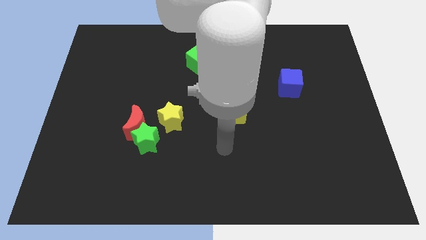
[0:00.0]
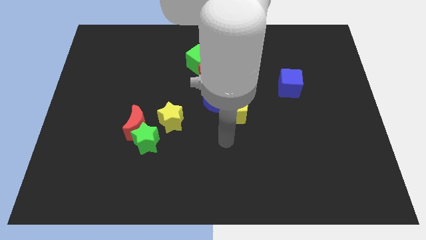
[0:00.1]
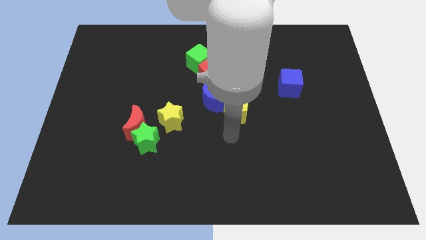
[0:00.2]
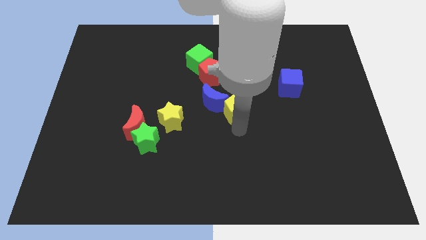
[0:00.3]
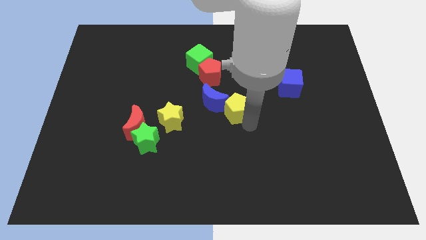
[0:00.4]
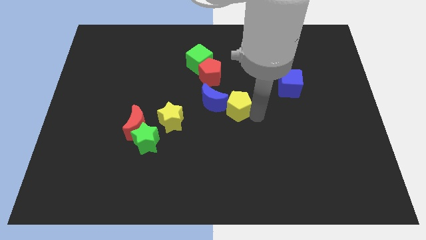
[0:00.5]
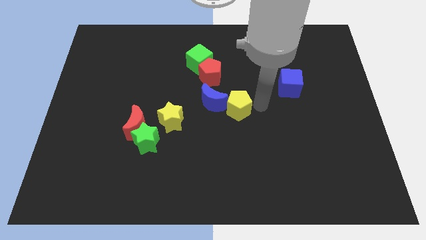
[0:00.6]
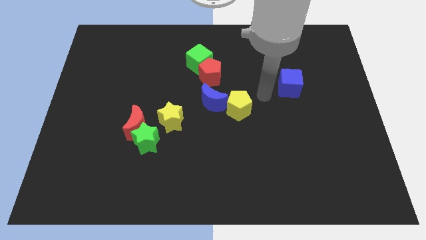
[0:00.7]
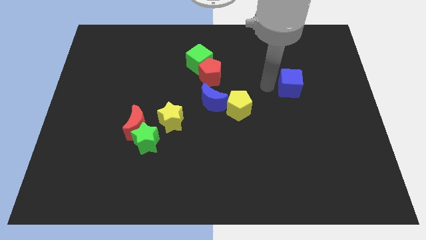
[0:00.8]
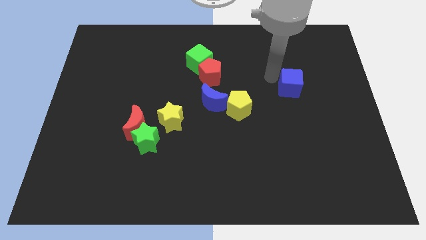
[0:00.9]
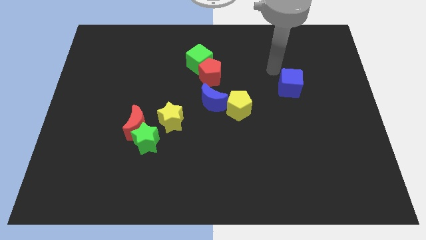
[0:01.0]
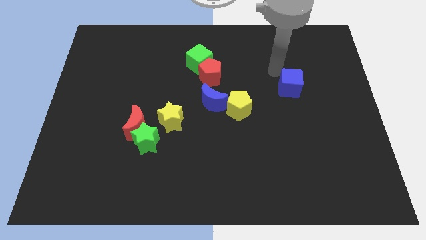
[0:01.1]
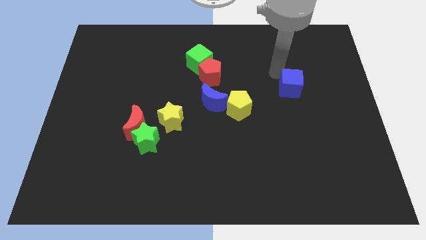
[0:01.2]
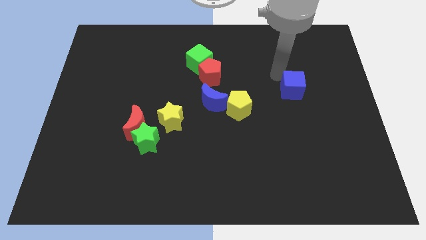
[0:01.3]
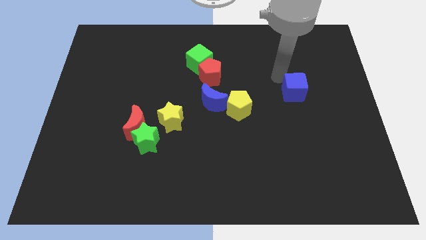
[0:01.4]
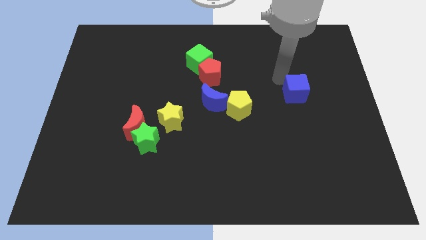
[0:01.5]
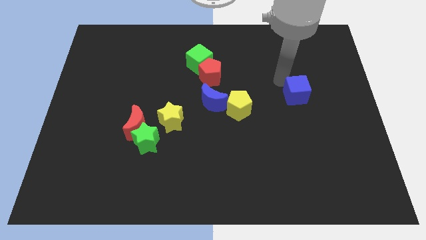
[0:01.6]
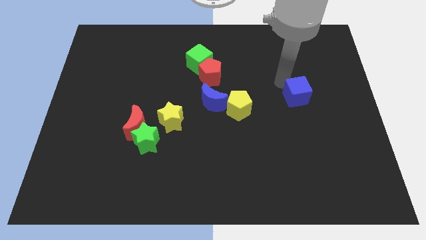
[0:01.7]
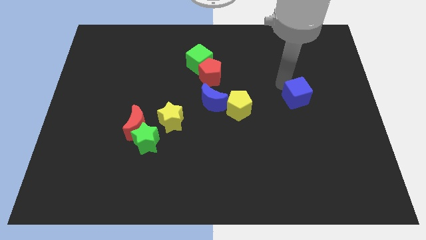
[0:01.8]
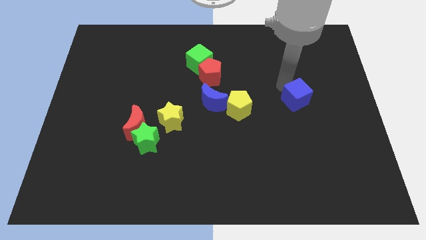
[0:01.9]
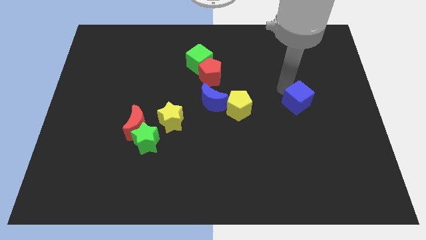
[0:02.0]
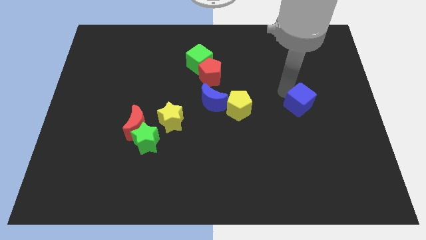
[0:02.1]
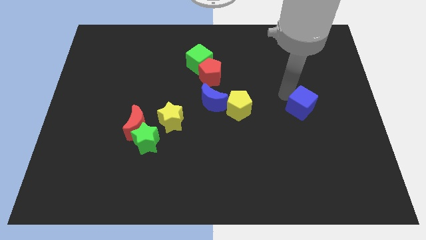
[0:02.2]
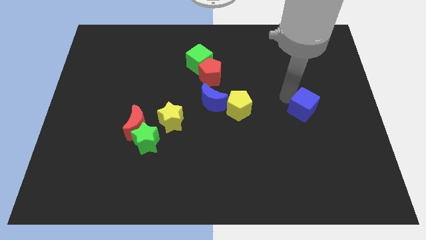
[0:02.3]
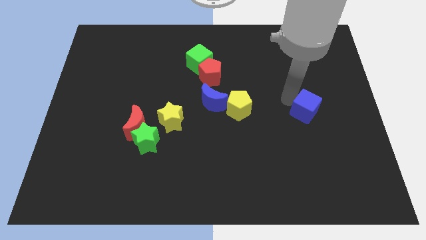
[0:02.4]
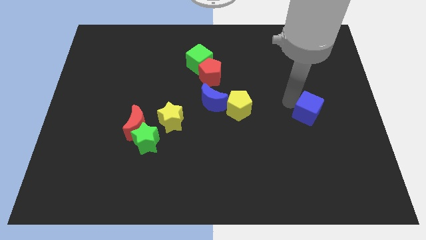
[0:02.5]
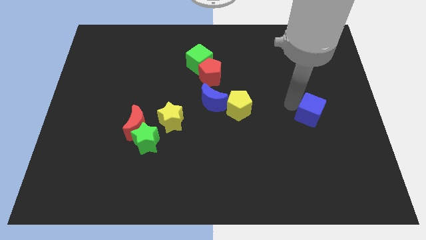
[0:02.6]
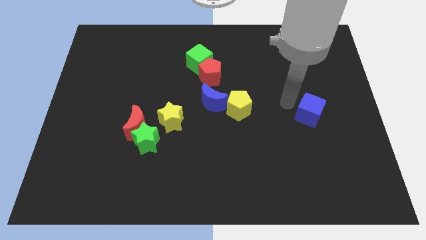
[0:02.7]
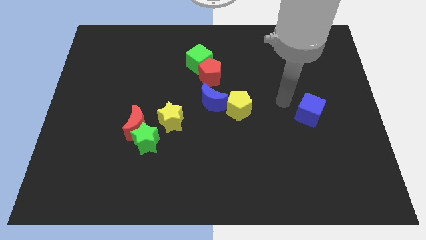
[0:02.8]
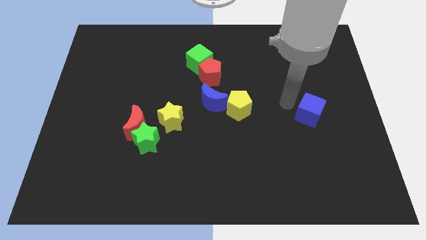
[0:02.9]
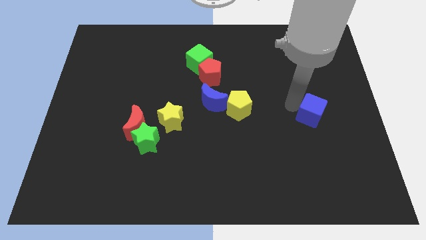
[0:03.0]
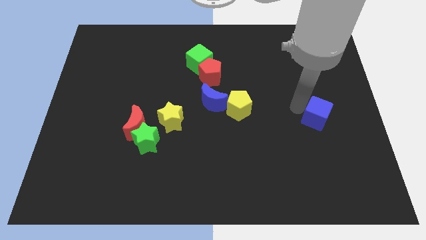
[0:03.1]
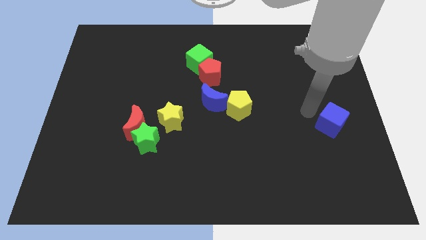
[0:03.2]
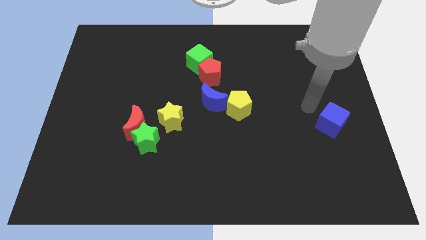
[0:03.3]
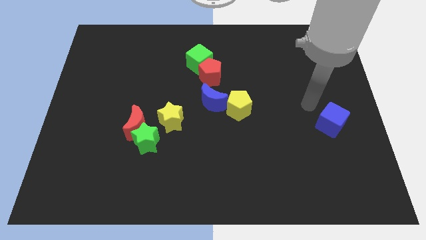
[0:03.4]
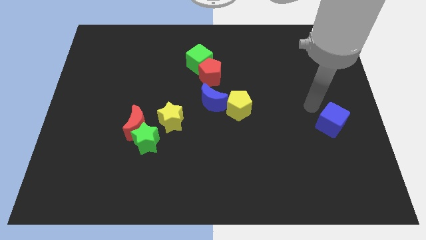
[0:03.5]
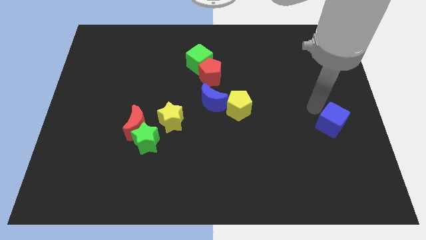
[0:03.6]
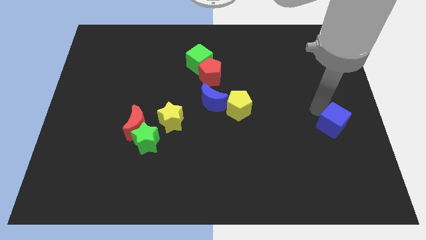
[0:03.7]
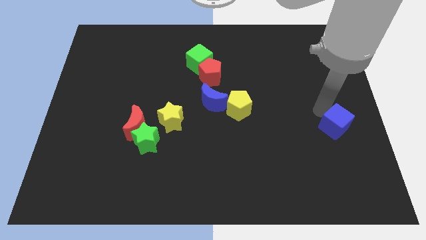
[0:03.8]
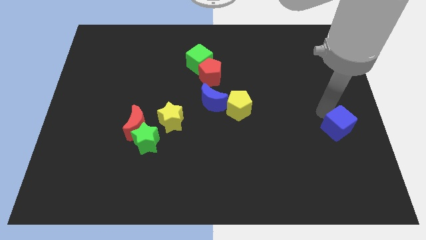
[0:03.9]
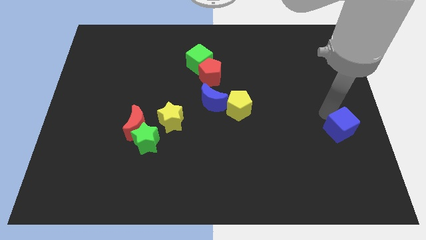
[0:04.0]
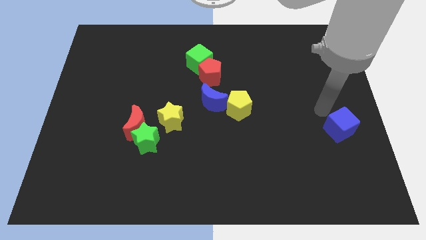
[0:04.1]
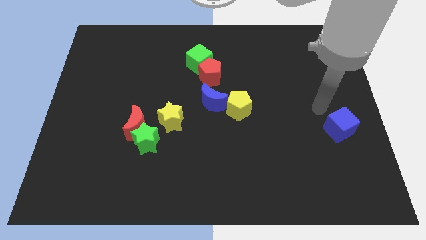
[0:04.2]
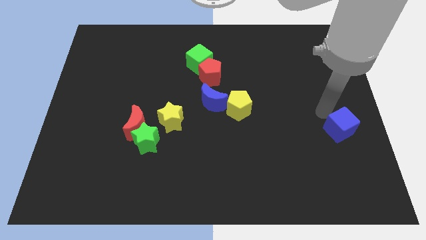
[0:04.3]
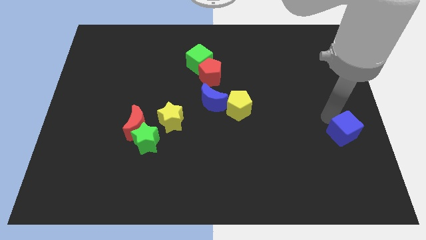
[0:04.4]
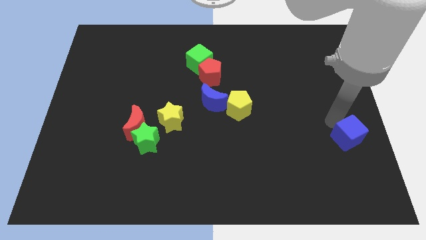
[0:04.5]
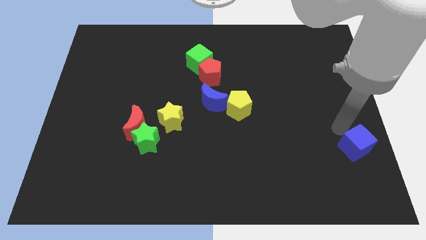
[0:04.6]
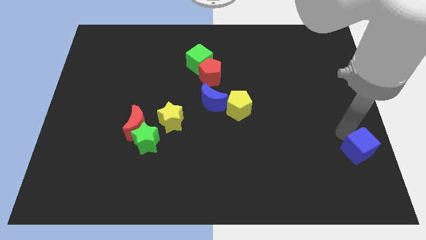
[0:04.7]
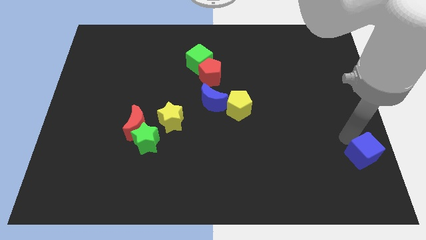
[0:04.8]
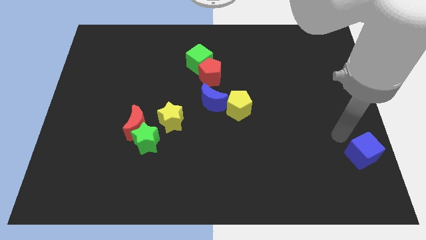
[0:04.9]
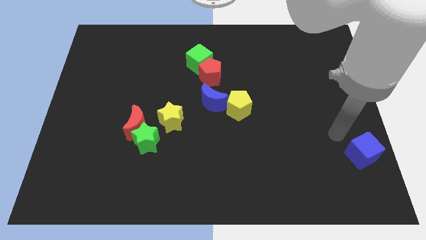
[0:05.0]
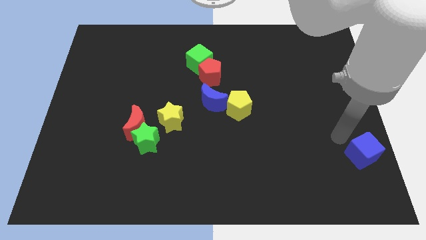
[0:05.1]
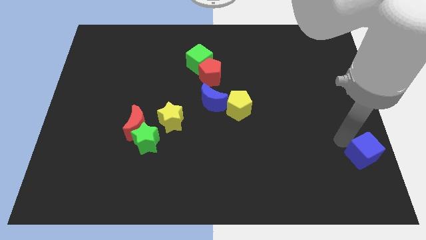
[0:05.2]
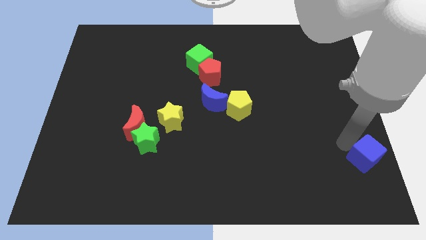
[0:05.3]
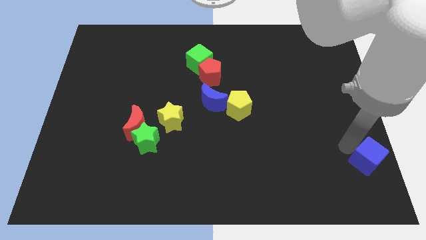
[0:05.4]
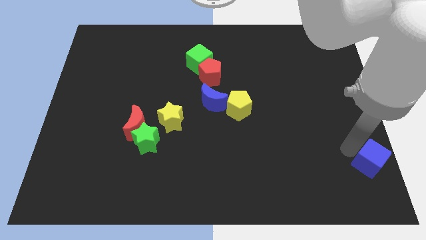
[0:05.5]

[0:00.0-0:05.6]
push the blue cube to the bottom right

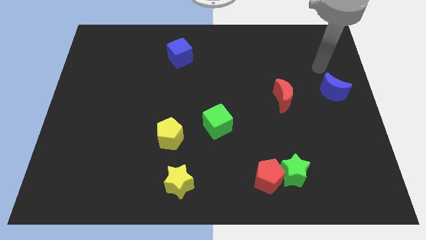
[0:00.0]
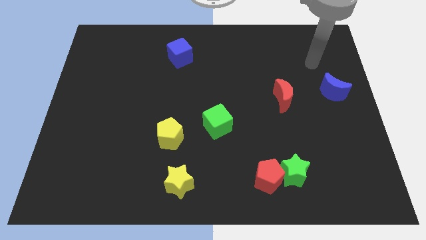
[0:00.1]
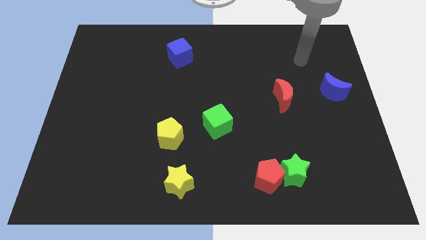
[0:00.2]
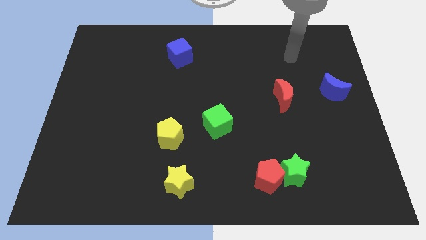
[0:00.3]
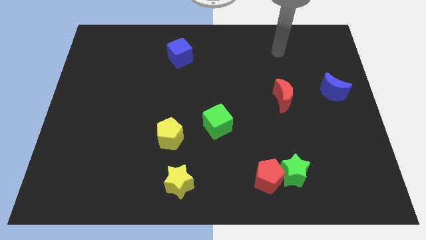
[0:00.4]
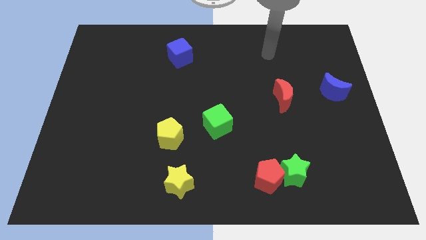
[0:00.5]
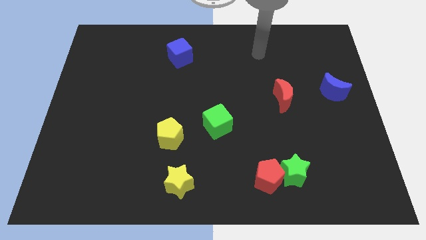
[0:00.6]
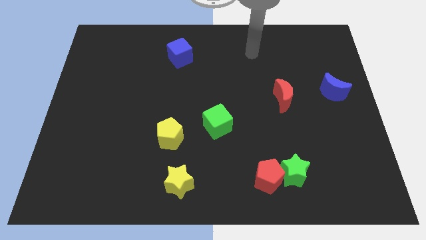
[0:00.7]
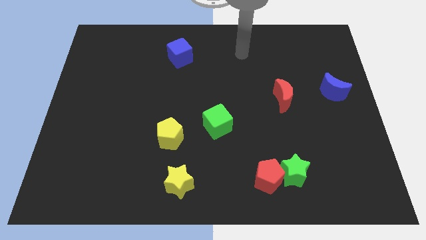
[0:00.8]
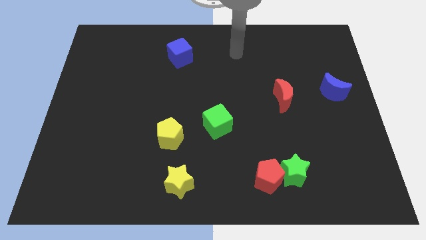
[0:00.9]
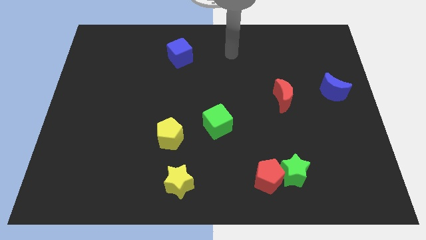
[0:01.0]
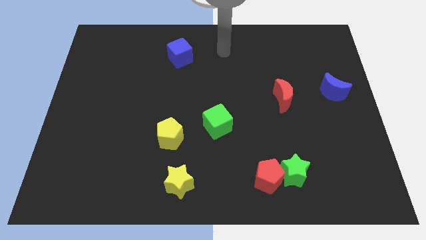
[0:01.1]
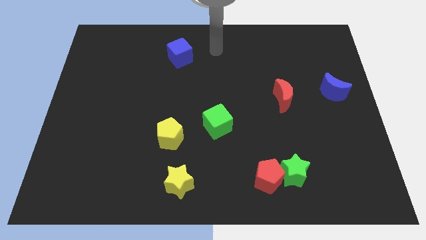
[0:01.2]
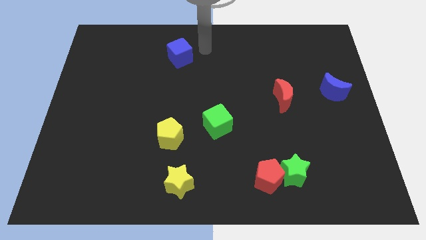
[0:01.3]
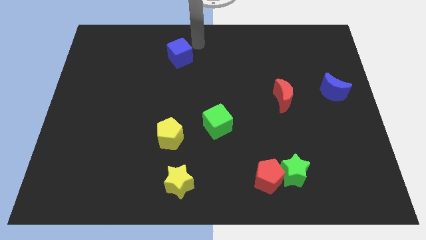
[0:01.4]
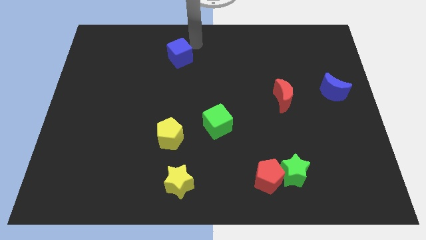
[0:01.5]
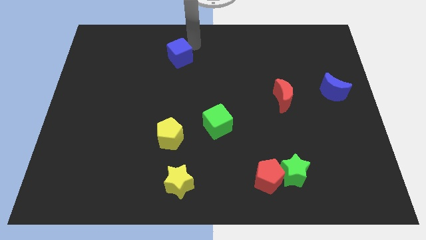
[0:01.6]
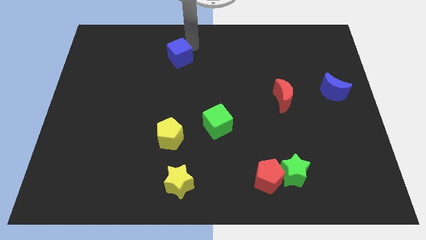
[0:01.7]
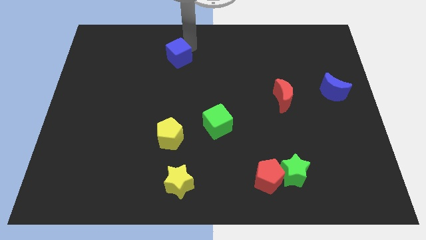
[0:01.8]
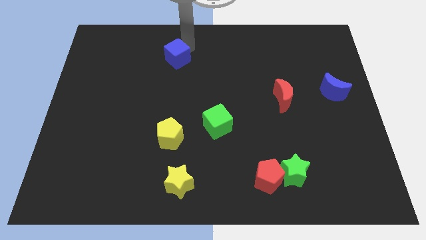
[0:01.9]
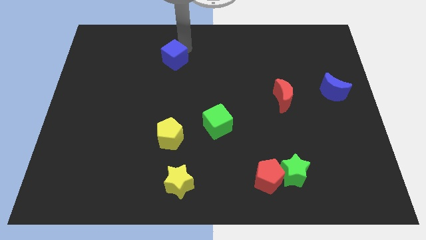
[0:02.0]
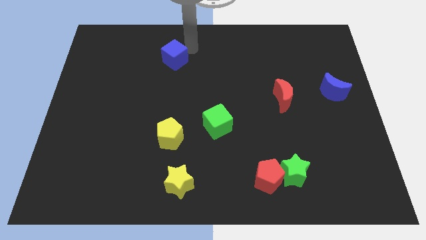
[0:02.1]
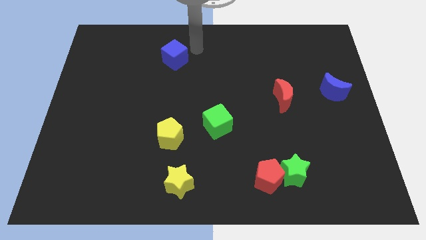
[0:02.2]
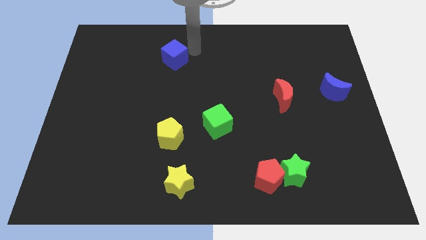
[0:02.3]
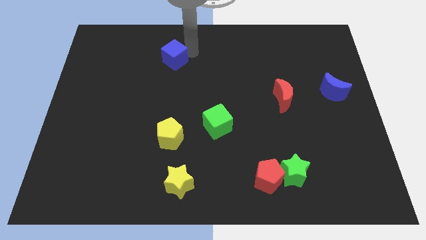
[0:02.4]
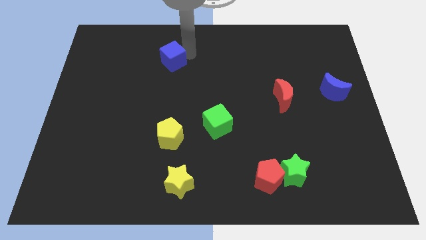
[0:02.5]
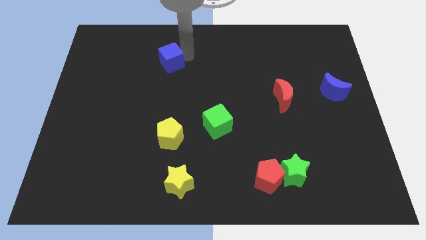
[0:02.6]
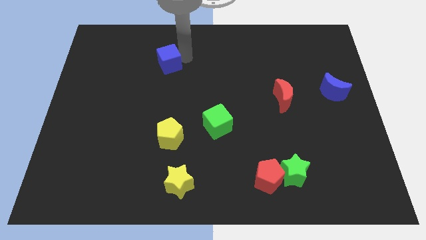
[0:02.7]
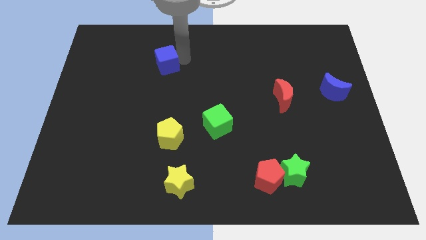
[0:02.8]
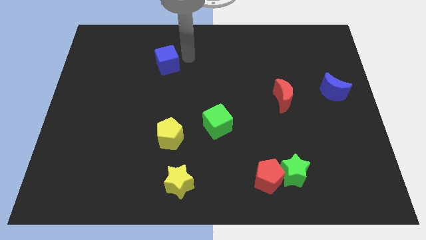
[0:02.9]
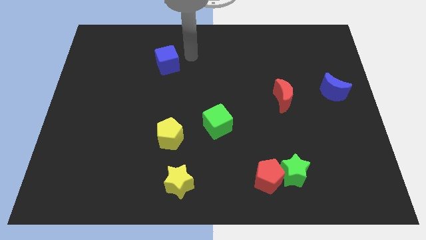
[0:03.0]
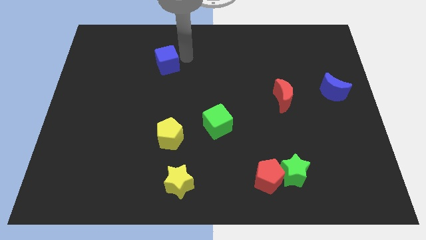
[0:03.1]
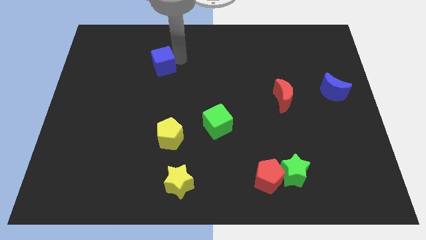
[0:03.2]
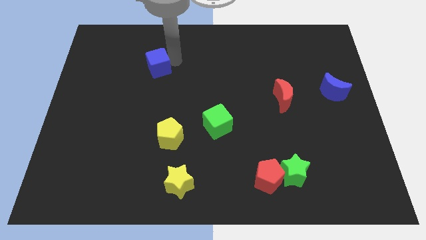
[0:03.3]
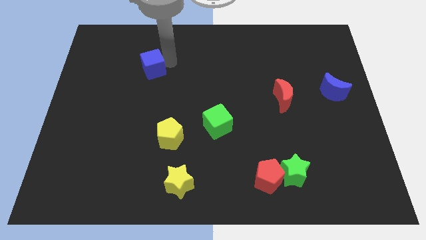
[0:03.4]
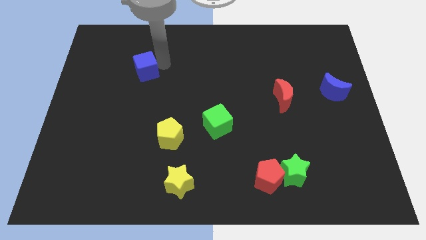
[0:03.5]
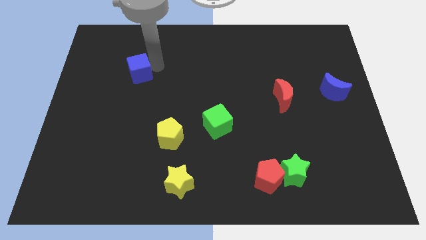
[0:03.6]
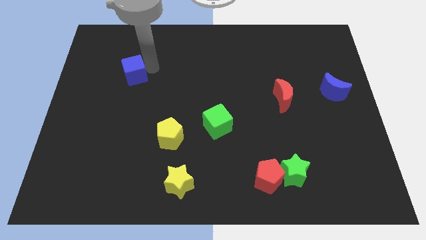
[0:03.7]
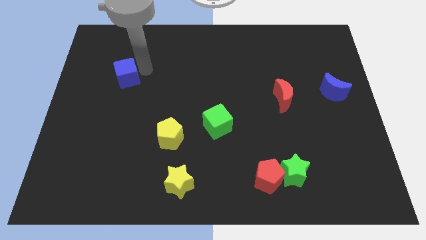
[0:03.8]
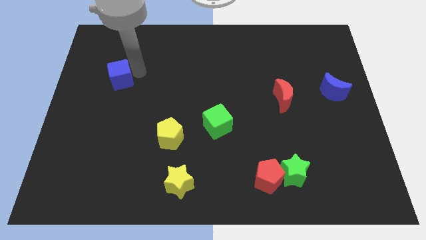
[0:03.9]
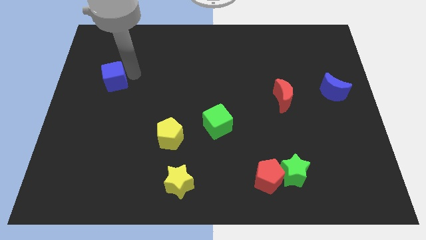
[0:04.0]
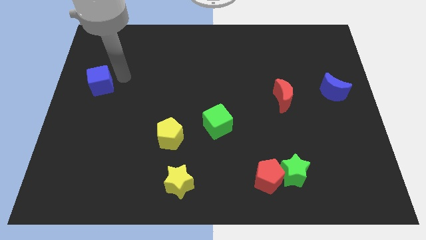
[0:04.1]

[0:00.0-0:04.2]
move the blue cube to the left side of the board
